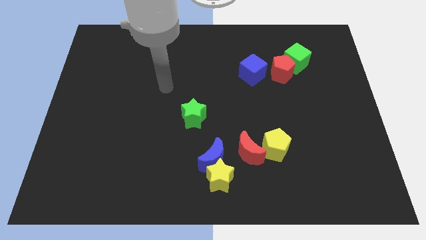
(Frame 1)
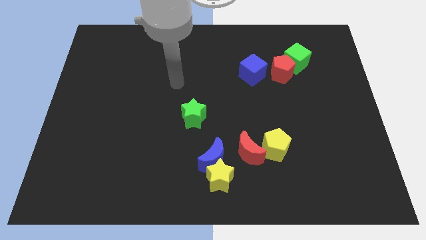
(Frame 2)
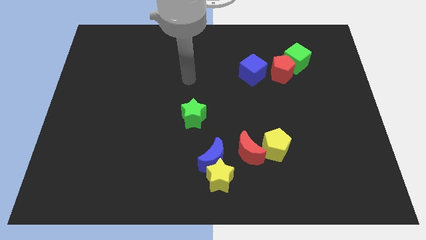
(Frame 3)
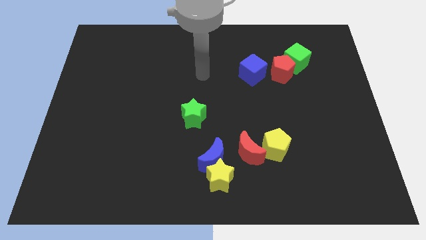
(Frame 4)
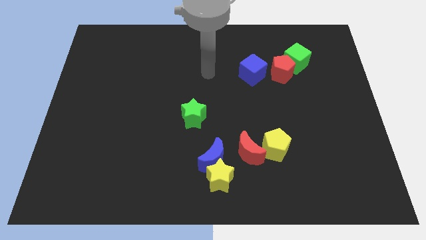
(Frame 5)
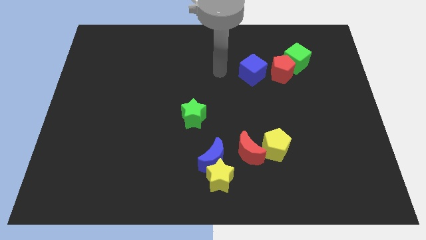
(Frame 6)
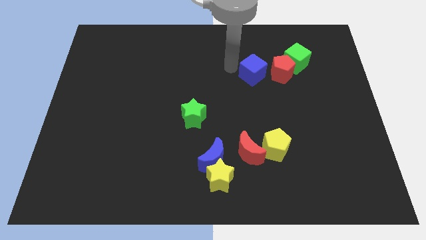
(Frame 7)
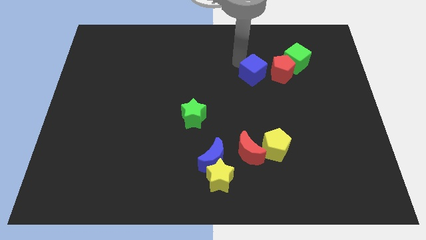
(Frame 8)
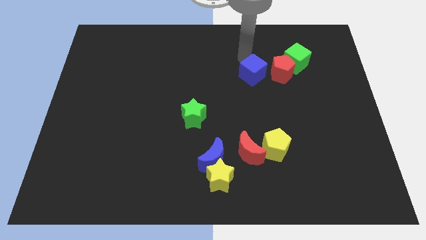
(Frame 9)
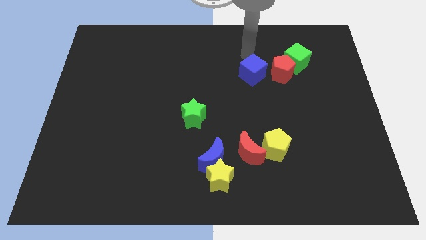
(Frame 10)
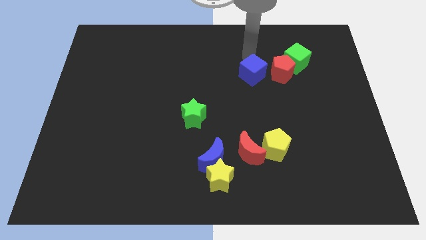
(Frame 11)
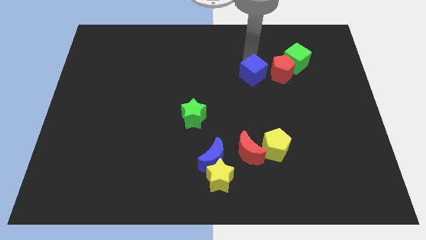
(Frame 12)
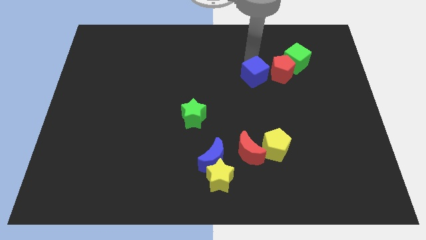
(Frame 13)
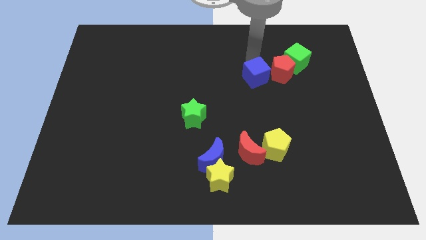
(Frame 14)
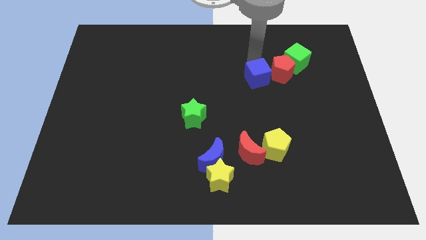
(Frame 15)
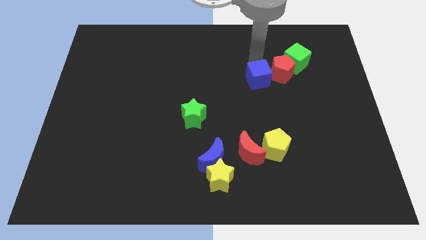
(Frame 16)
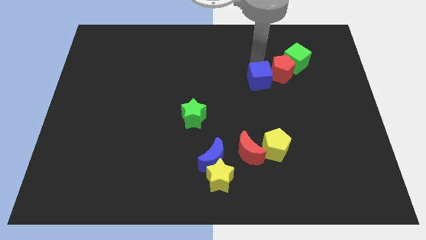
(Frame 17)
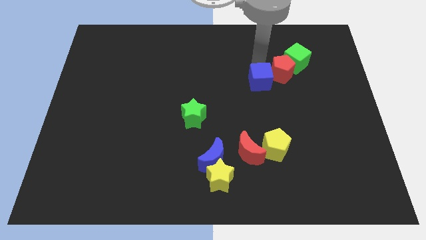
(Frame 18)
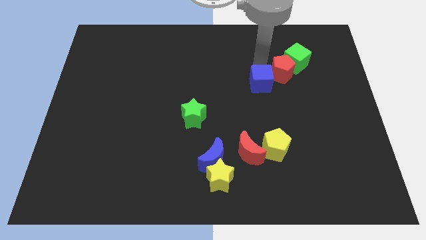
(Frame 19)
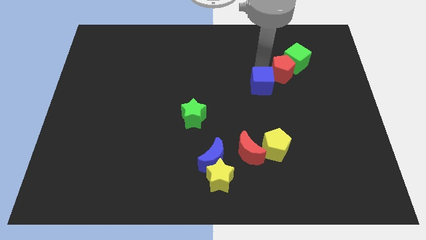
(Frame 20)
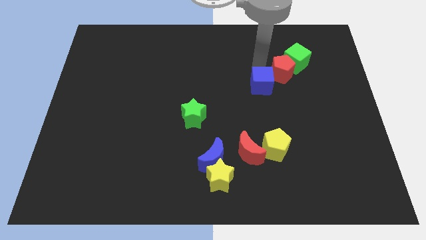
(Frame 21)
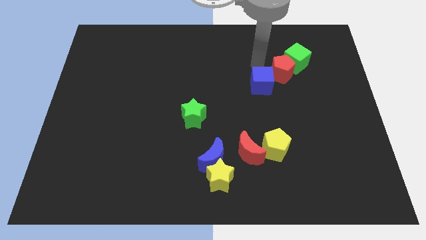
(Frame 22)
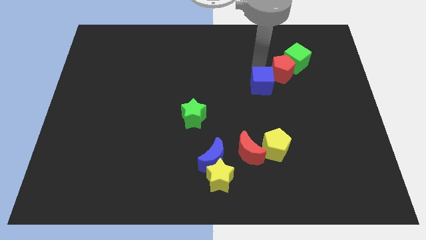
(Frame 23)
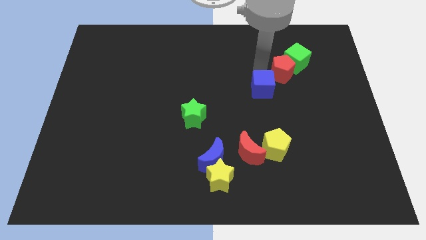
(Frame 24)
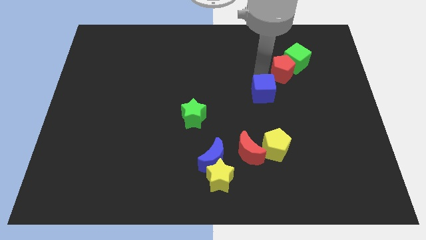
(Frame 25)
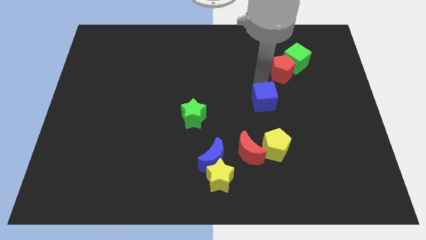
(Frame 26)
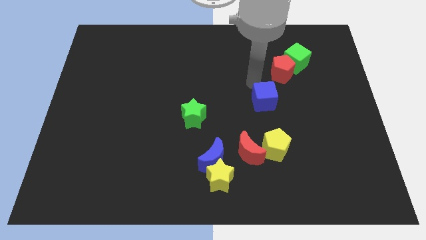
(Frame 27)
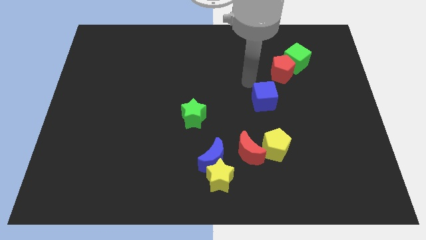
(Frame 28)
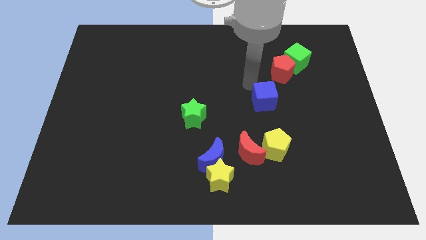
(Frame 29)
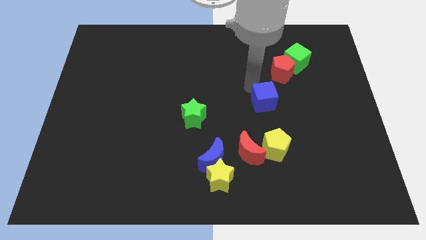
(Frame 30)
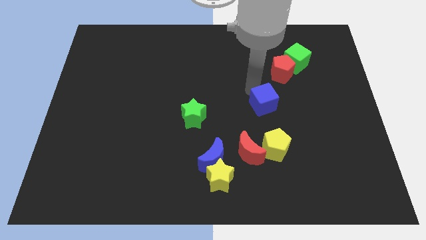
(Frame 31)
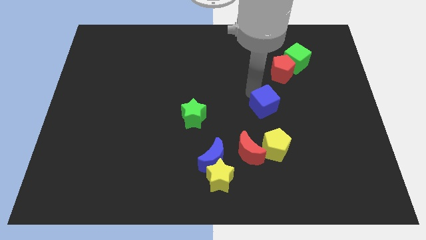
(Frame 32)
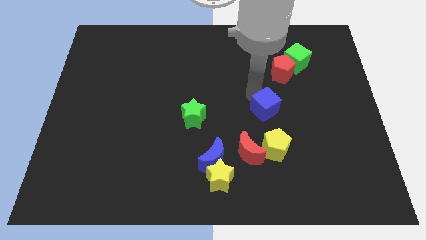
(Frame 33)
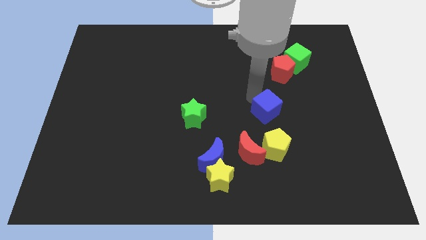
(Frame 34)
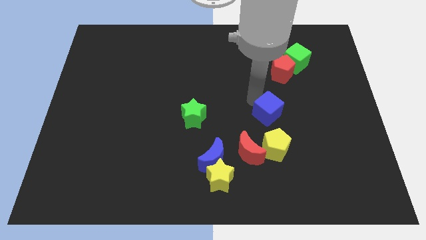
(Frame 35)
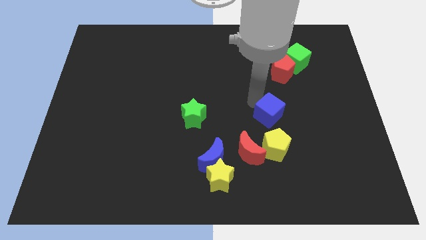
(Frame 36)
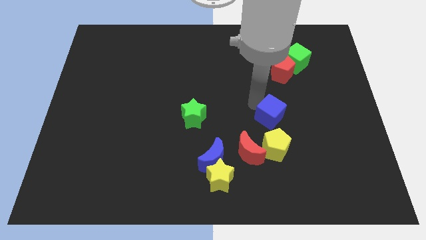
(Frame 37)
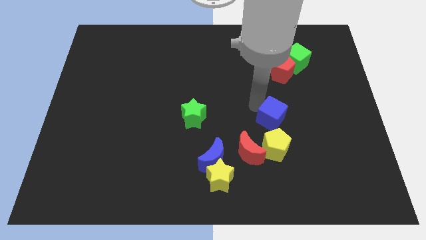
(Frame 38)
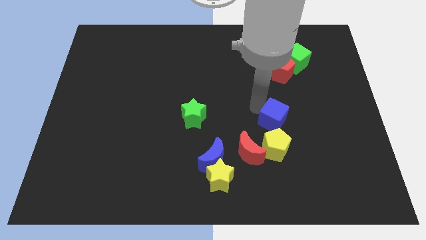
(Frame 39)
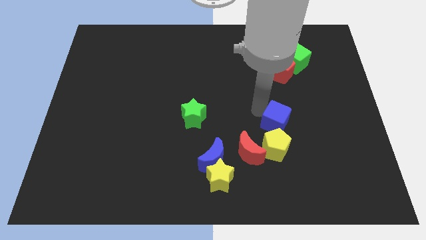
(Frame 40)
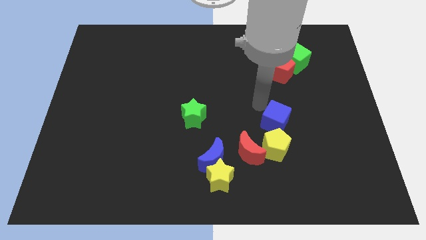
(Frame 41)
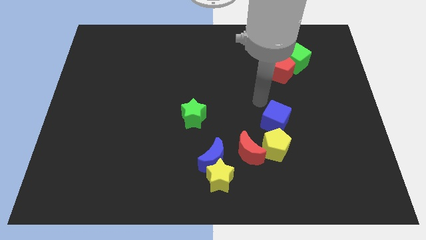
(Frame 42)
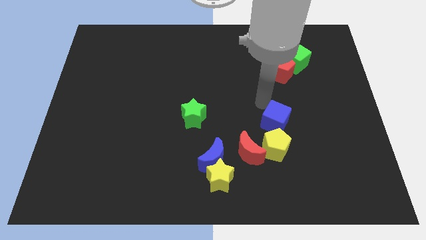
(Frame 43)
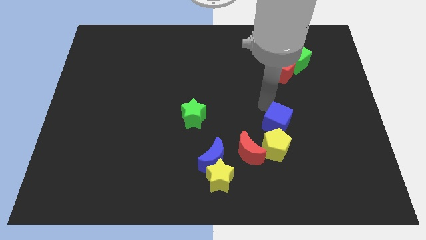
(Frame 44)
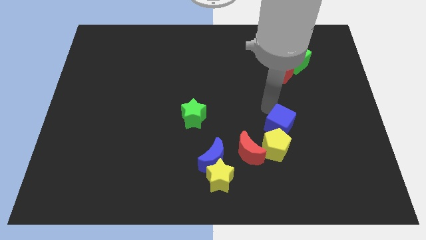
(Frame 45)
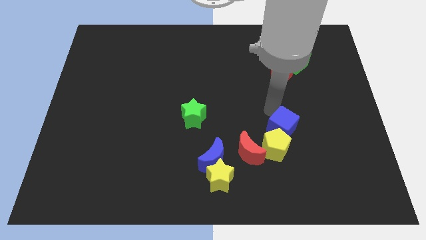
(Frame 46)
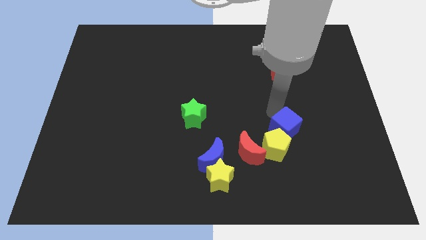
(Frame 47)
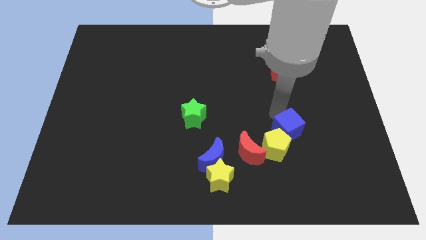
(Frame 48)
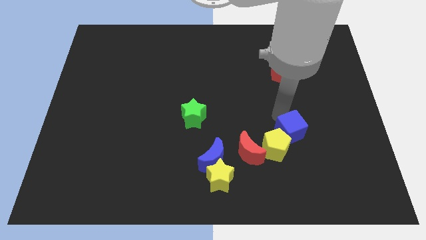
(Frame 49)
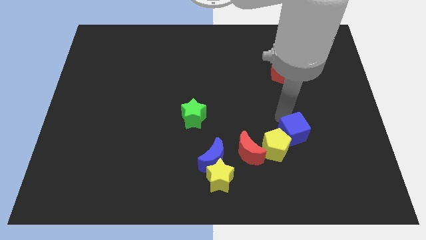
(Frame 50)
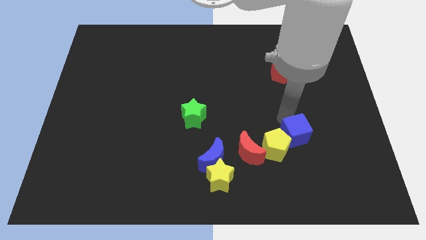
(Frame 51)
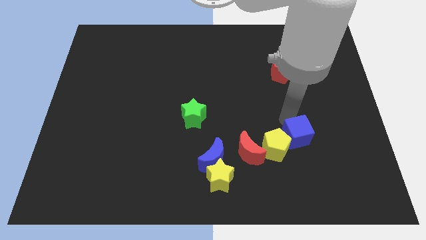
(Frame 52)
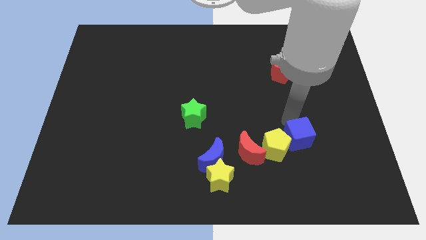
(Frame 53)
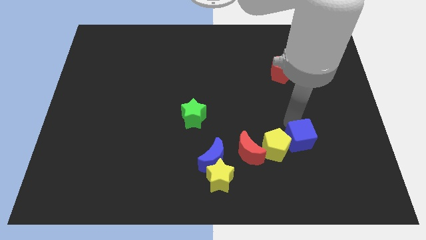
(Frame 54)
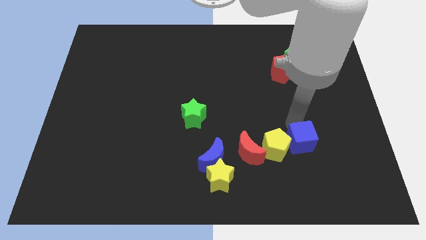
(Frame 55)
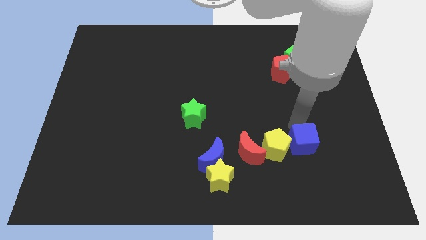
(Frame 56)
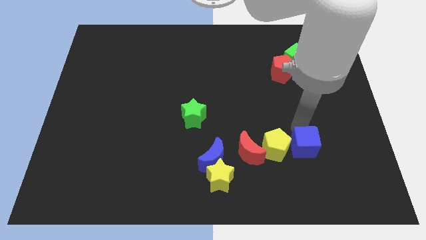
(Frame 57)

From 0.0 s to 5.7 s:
slide the blue cube diagonally down and to the right of the yellow pentagon

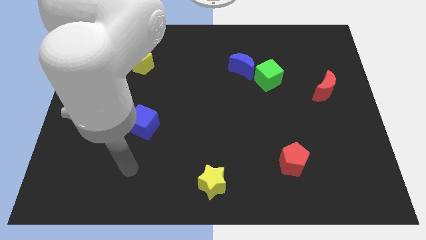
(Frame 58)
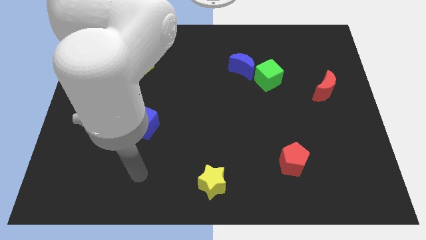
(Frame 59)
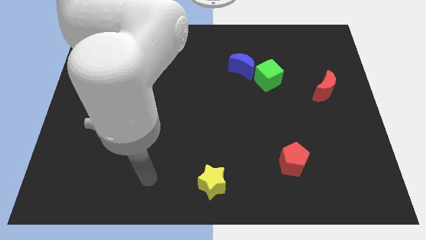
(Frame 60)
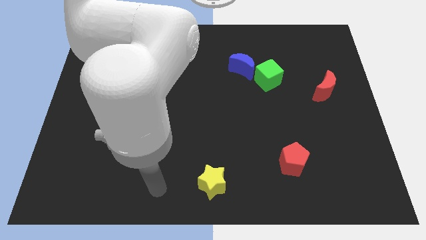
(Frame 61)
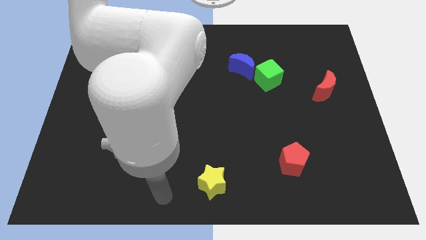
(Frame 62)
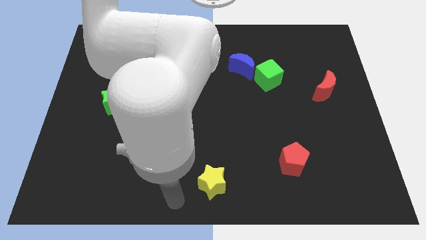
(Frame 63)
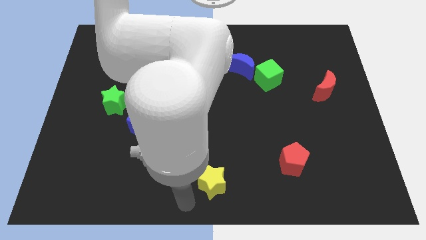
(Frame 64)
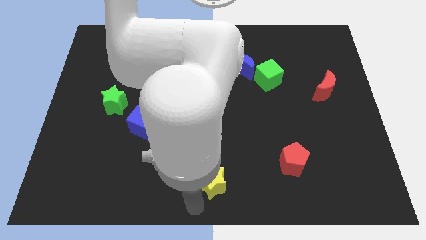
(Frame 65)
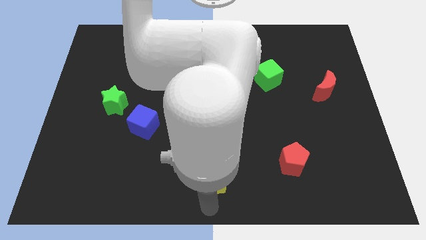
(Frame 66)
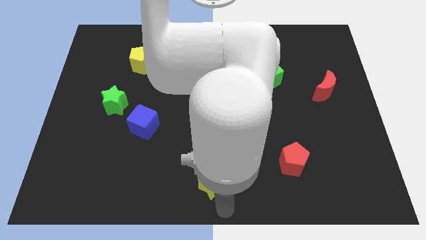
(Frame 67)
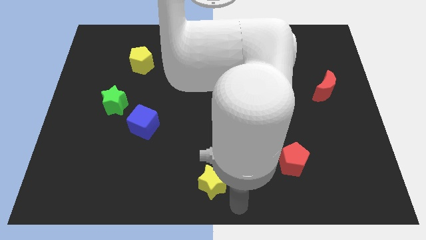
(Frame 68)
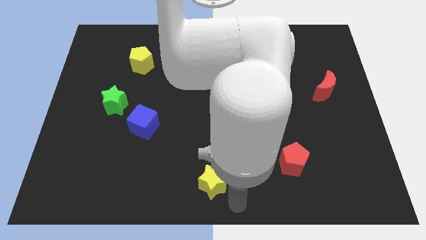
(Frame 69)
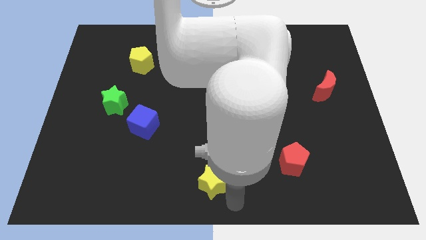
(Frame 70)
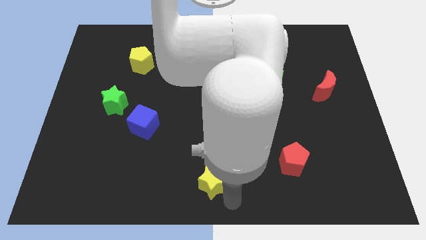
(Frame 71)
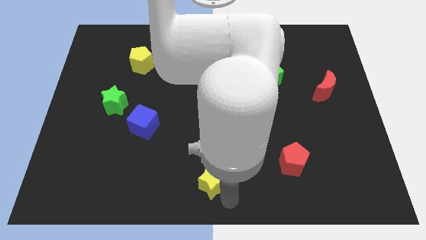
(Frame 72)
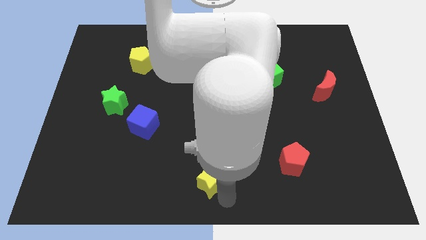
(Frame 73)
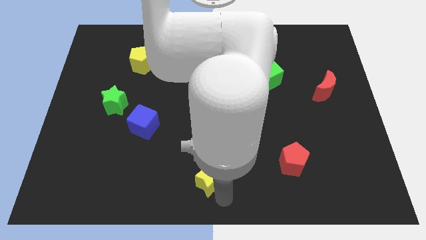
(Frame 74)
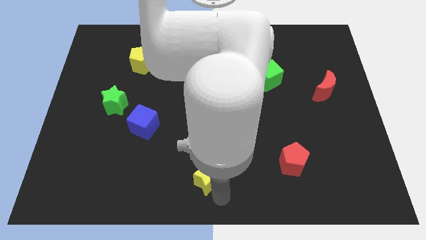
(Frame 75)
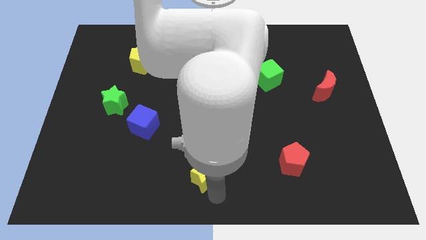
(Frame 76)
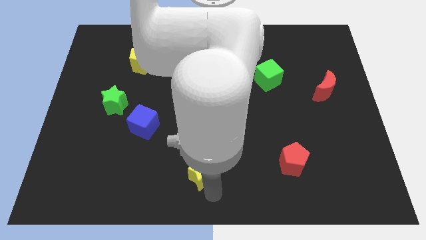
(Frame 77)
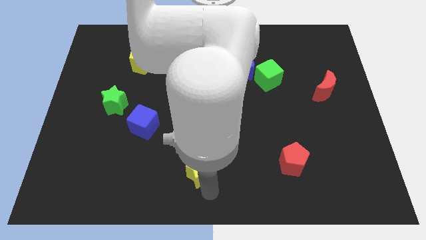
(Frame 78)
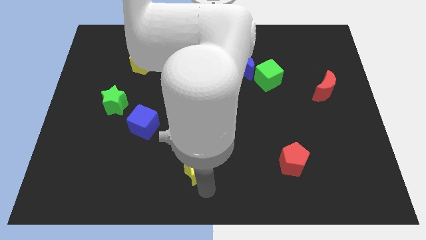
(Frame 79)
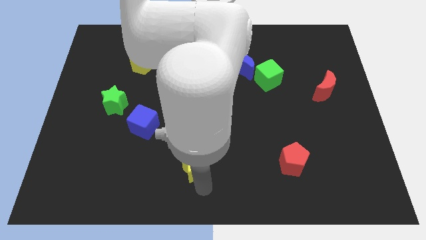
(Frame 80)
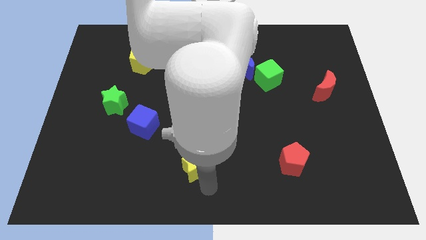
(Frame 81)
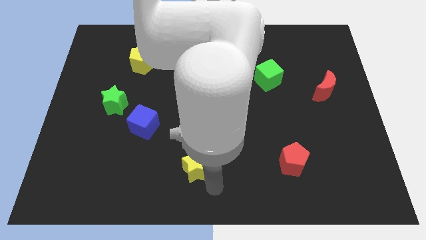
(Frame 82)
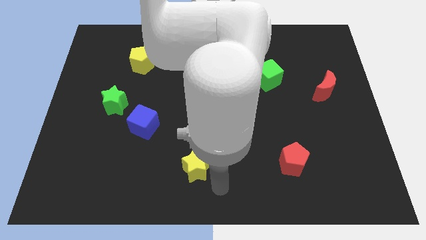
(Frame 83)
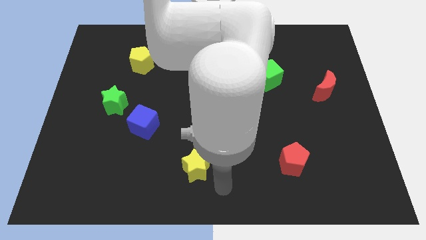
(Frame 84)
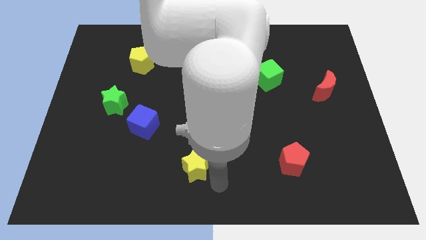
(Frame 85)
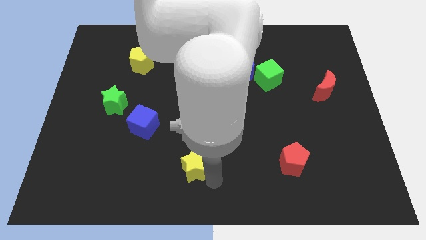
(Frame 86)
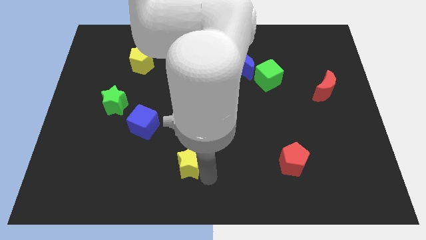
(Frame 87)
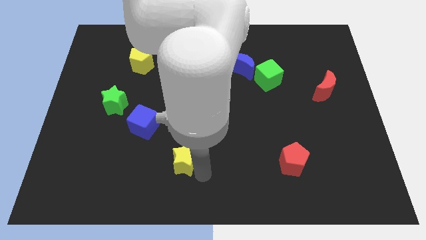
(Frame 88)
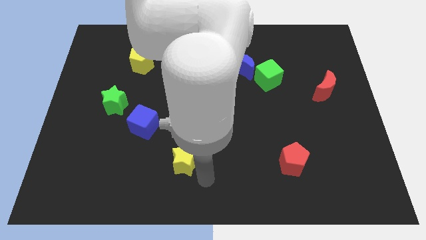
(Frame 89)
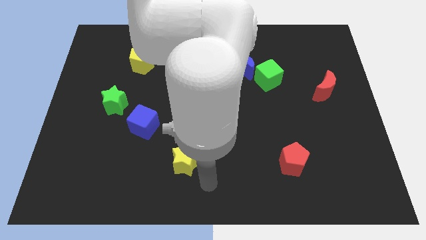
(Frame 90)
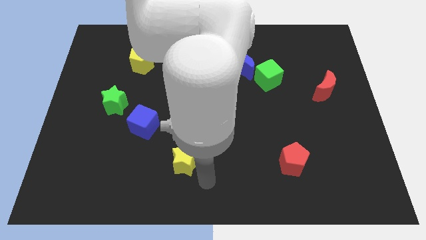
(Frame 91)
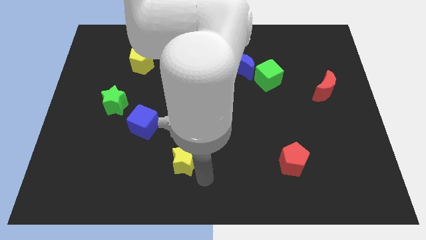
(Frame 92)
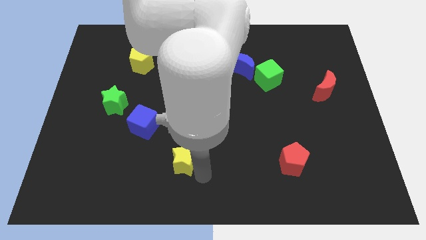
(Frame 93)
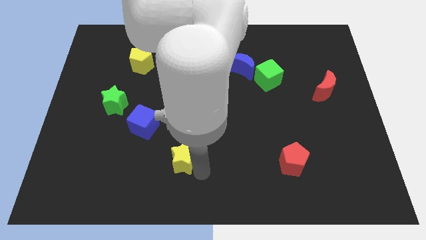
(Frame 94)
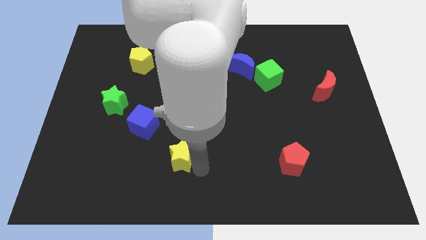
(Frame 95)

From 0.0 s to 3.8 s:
slide the yellow star diagonally down and to the right of the blue cube
